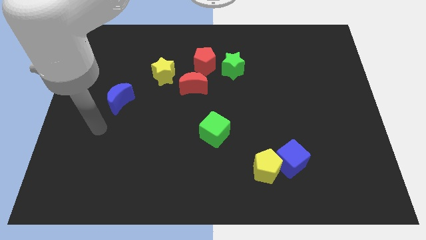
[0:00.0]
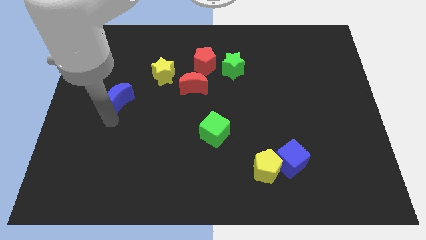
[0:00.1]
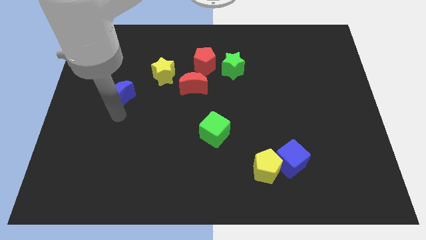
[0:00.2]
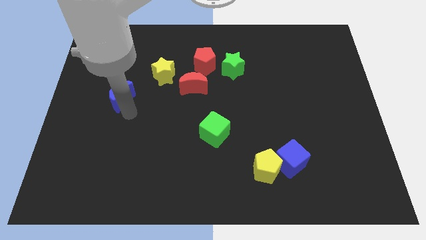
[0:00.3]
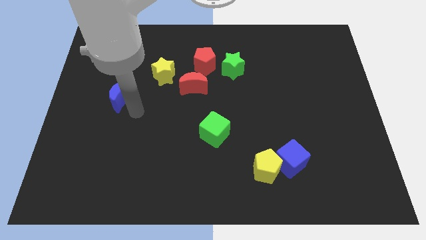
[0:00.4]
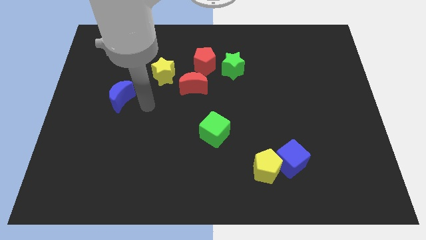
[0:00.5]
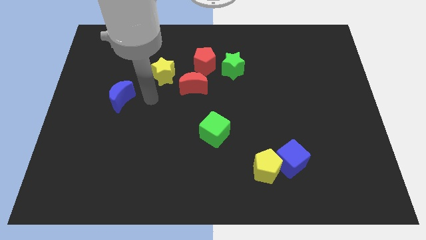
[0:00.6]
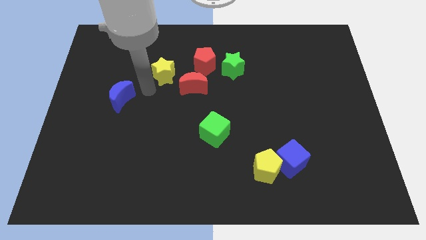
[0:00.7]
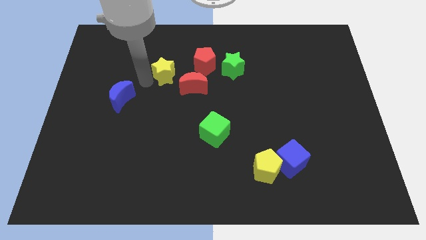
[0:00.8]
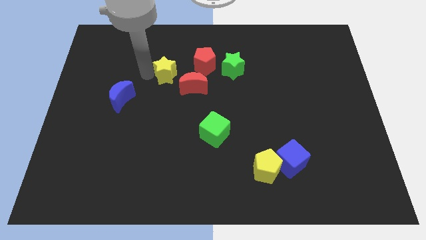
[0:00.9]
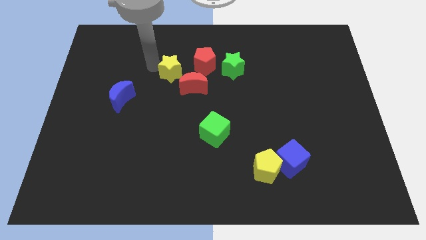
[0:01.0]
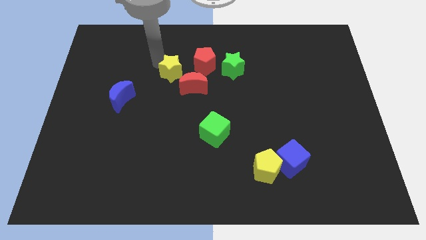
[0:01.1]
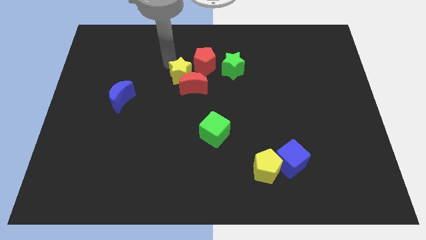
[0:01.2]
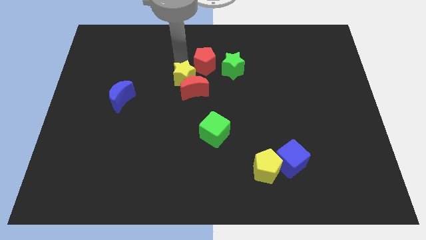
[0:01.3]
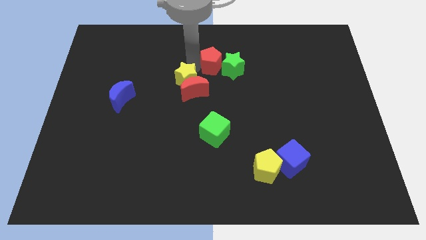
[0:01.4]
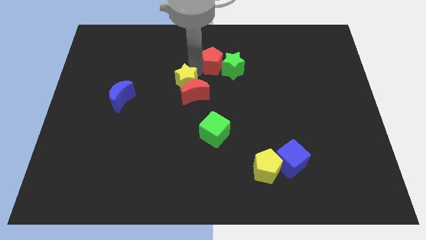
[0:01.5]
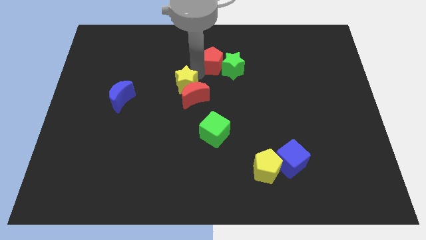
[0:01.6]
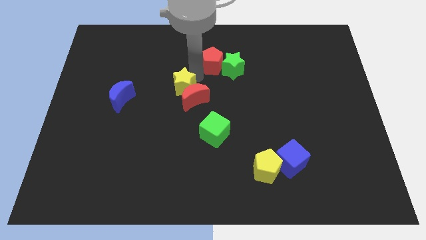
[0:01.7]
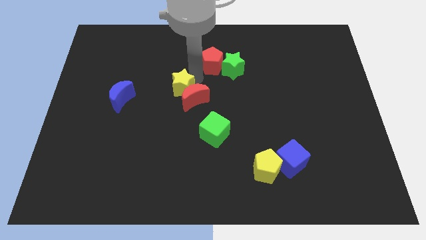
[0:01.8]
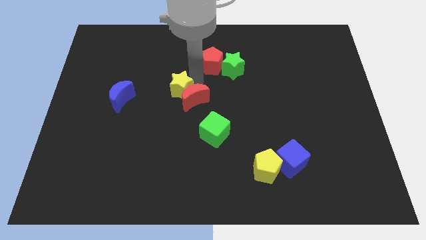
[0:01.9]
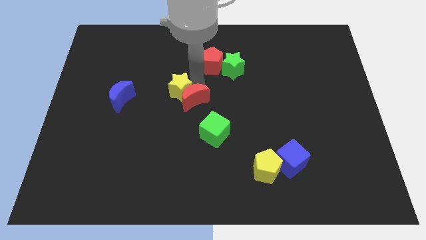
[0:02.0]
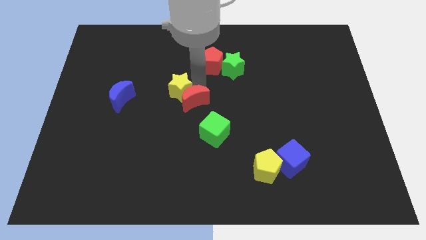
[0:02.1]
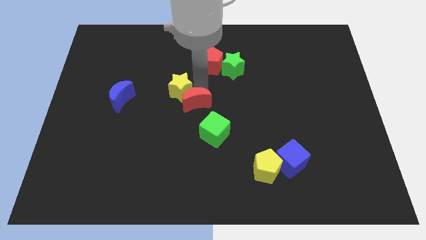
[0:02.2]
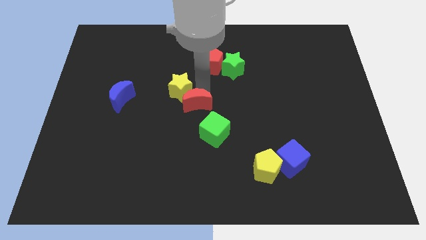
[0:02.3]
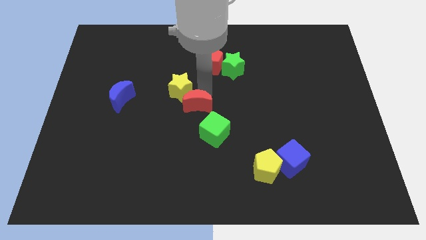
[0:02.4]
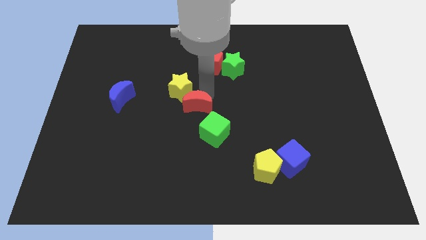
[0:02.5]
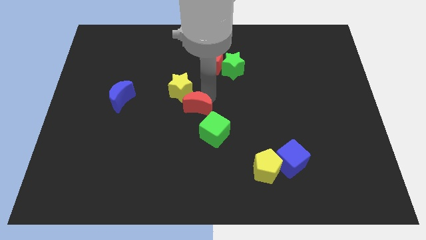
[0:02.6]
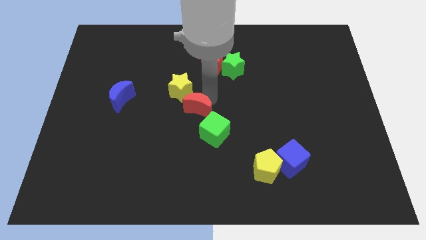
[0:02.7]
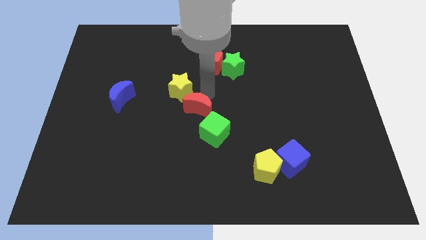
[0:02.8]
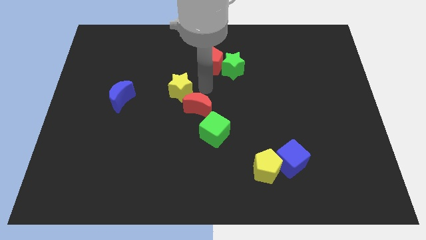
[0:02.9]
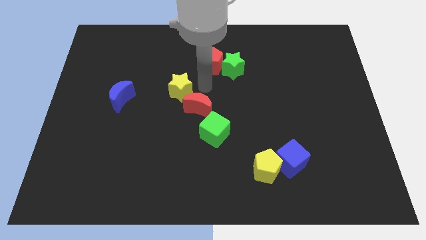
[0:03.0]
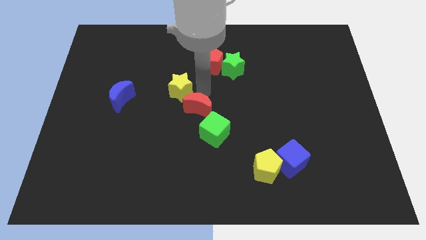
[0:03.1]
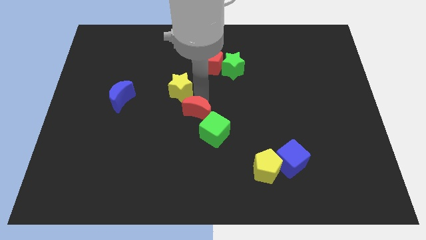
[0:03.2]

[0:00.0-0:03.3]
slightly slide the red moon down

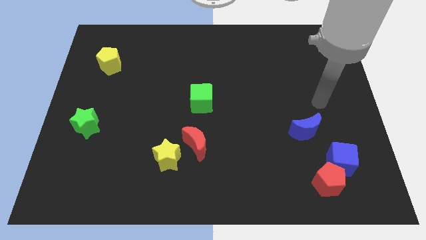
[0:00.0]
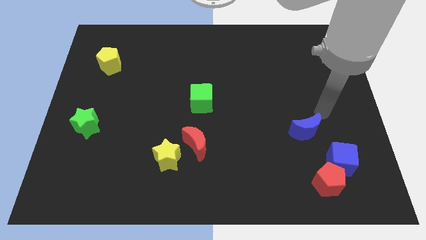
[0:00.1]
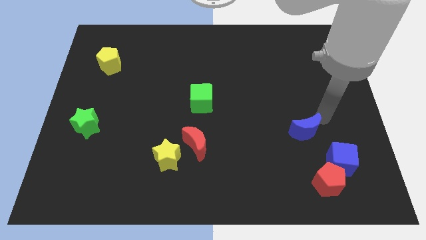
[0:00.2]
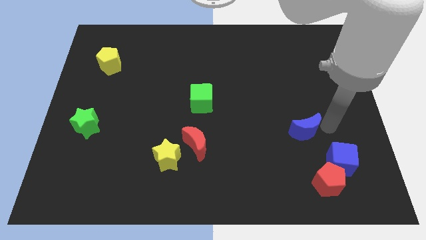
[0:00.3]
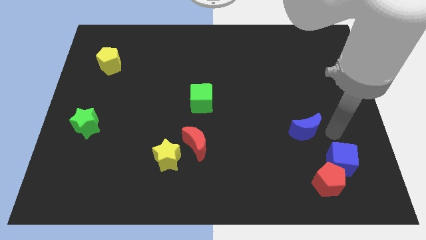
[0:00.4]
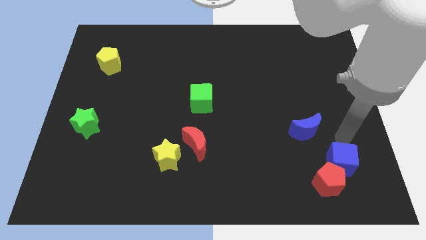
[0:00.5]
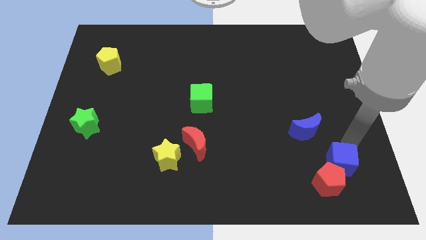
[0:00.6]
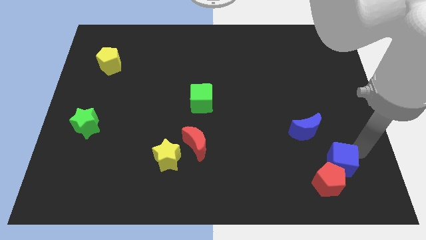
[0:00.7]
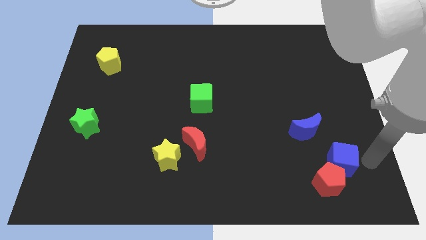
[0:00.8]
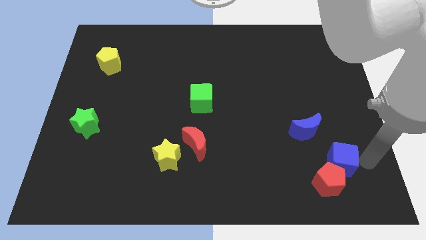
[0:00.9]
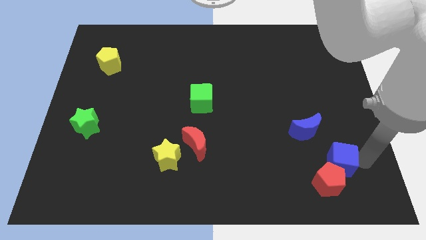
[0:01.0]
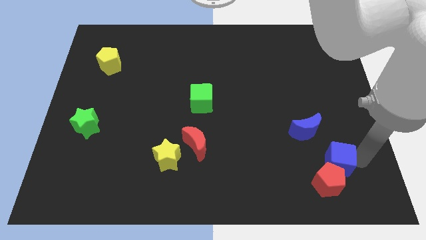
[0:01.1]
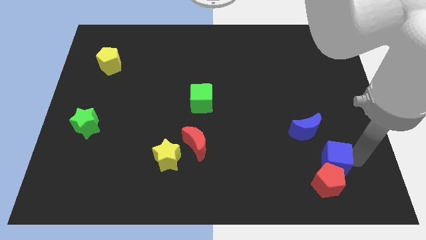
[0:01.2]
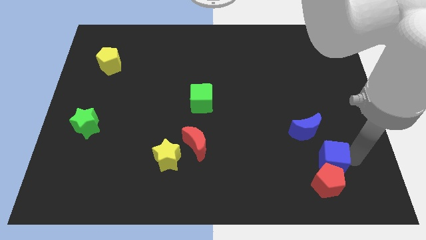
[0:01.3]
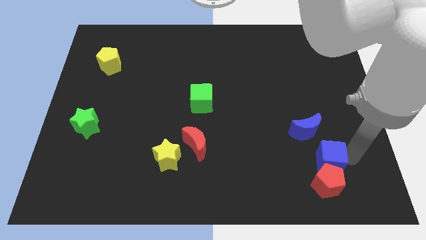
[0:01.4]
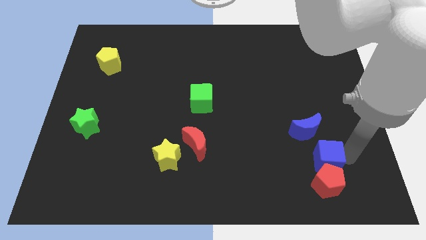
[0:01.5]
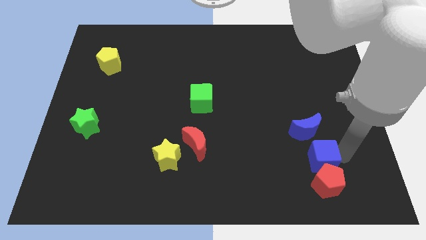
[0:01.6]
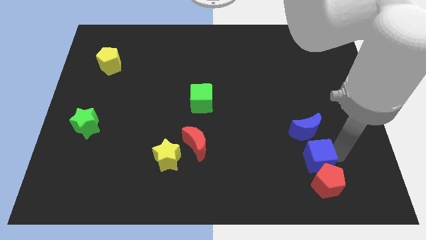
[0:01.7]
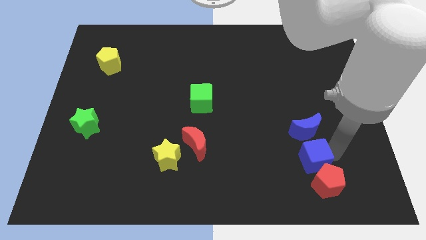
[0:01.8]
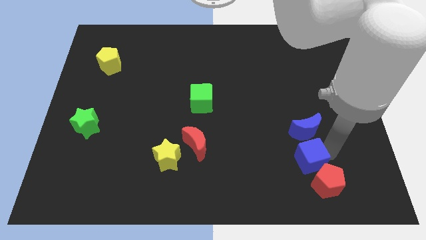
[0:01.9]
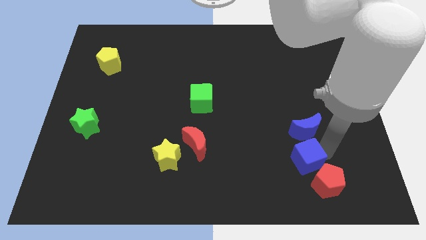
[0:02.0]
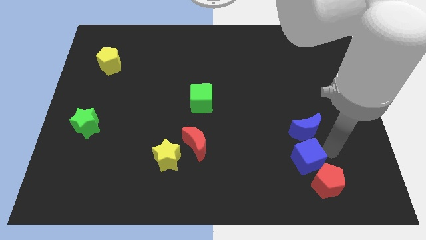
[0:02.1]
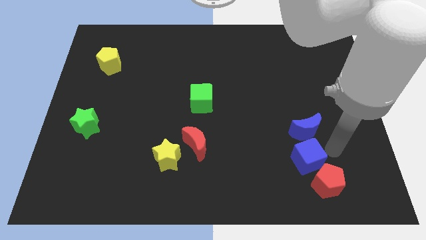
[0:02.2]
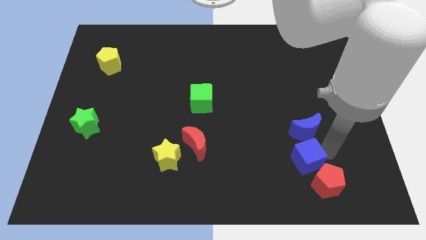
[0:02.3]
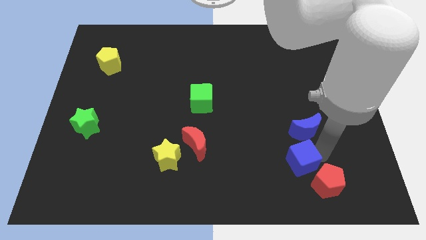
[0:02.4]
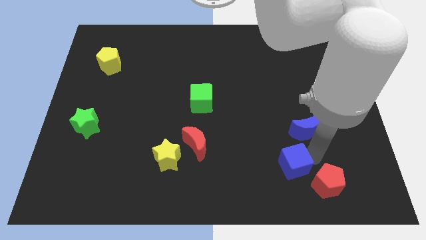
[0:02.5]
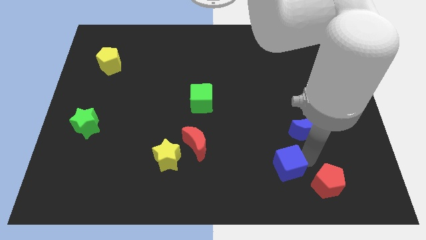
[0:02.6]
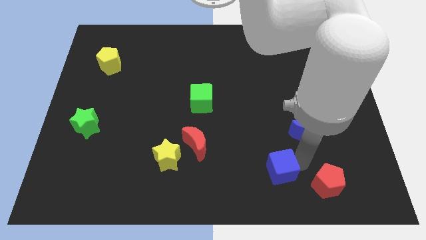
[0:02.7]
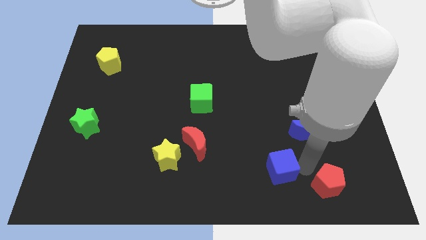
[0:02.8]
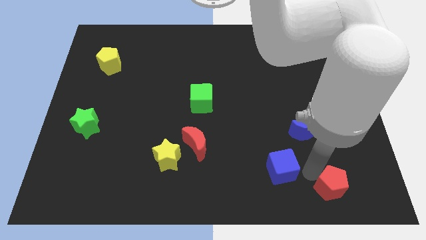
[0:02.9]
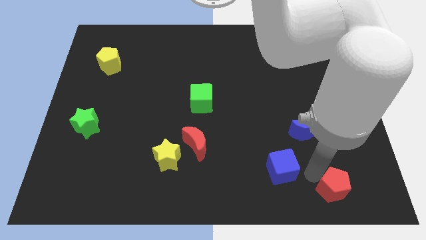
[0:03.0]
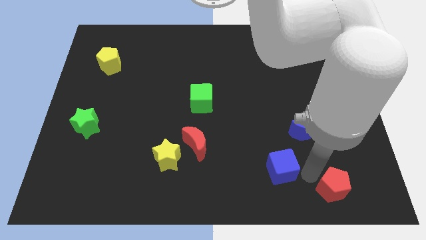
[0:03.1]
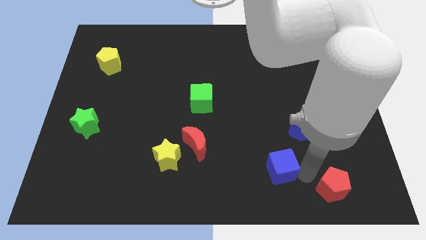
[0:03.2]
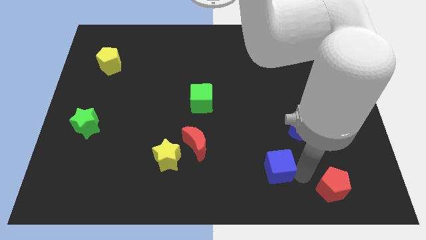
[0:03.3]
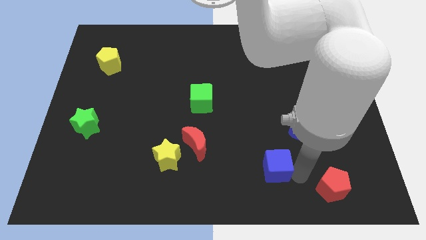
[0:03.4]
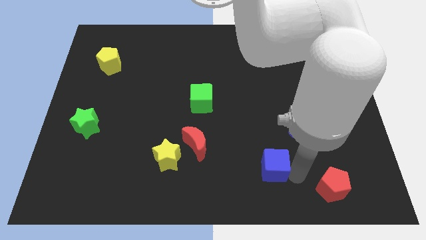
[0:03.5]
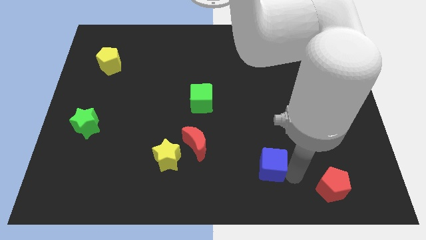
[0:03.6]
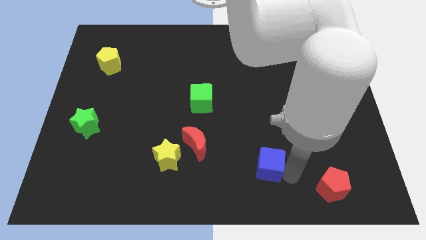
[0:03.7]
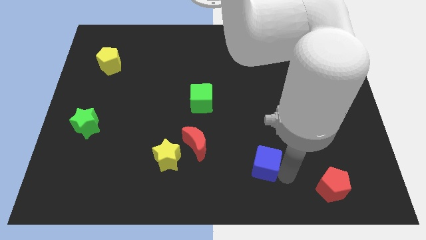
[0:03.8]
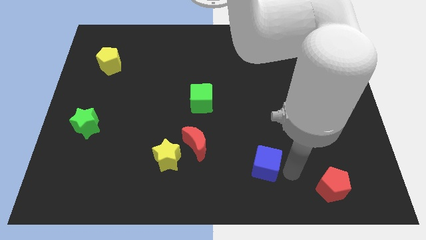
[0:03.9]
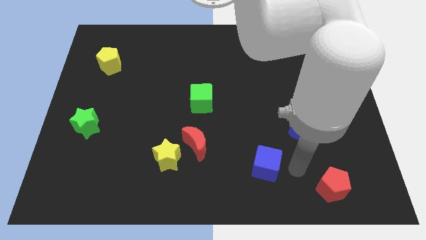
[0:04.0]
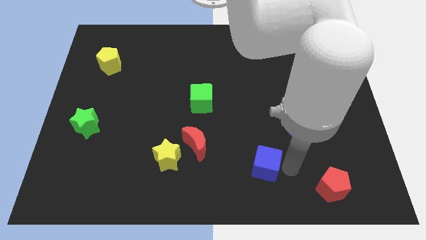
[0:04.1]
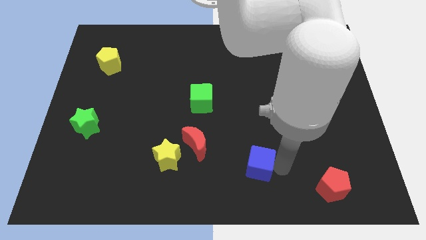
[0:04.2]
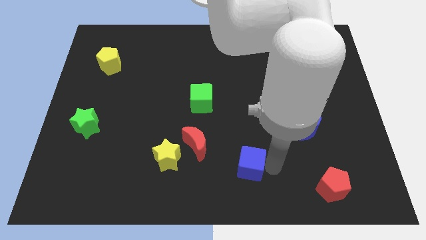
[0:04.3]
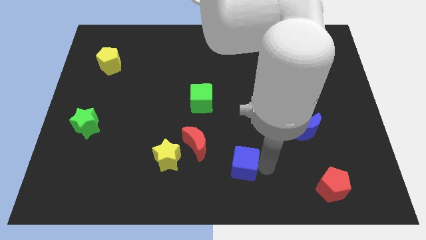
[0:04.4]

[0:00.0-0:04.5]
push the blue cube to the left

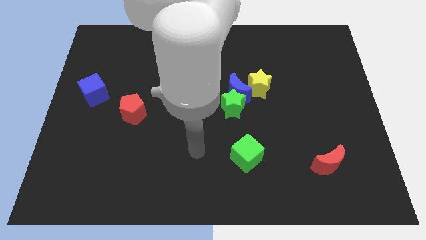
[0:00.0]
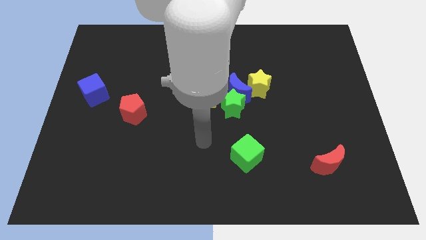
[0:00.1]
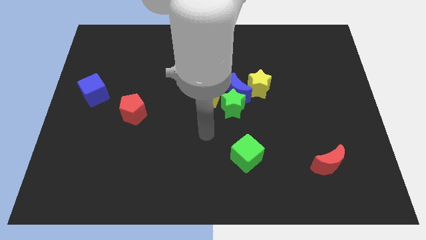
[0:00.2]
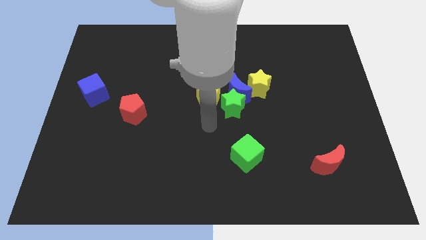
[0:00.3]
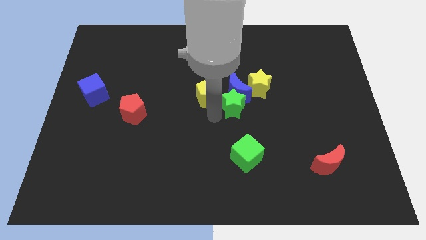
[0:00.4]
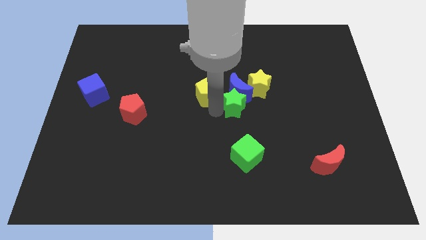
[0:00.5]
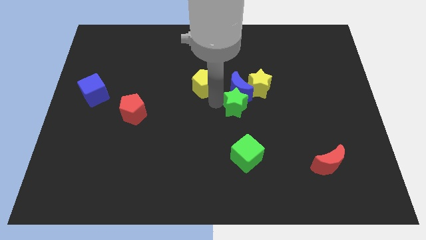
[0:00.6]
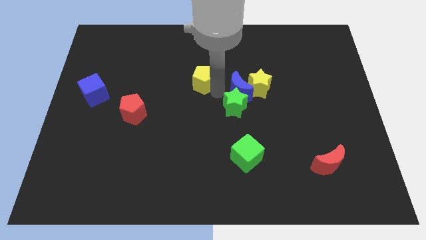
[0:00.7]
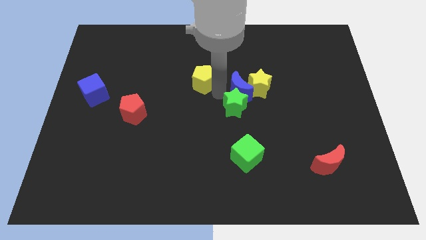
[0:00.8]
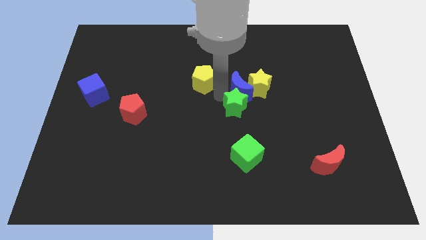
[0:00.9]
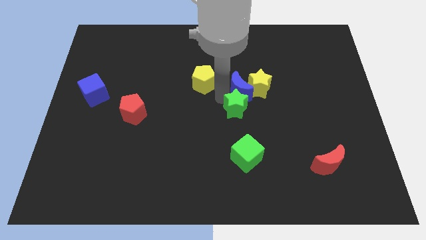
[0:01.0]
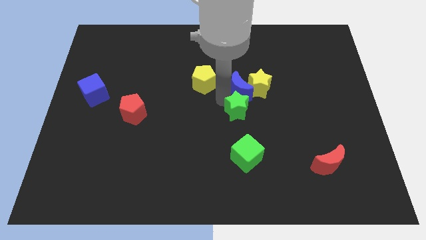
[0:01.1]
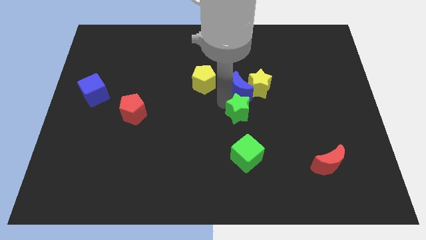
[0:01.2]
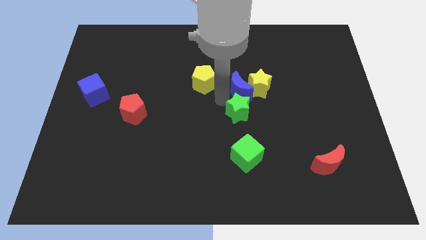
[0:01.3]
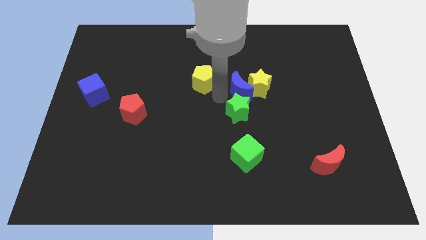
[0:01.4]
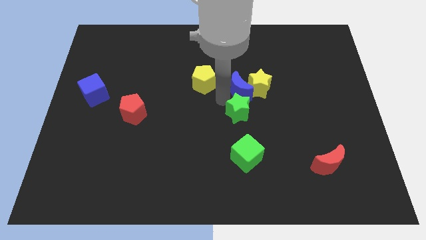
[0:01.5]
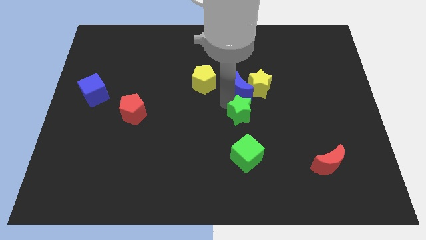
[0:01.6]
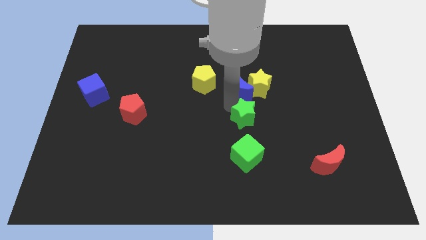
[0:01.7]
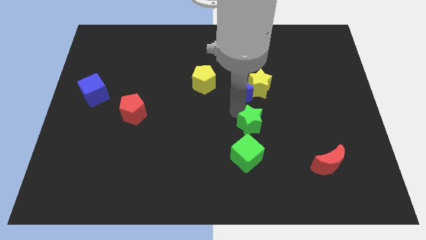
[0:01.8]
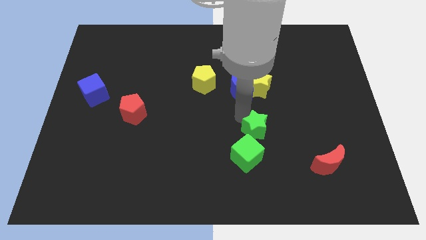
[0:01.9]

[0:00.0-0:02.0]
slide the green star downwards and to the right a little bit
